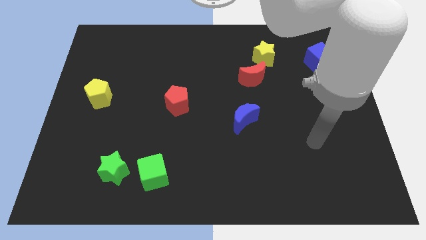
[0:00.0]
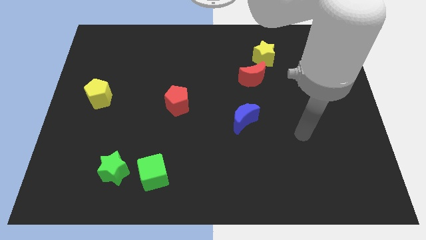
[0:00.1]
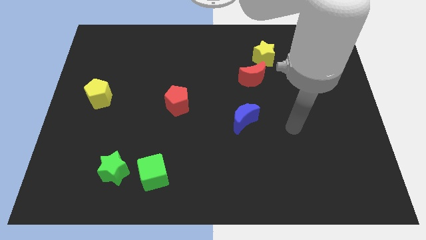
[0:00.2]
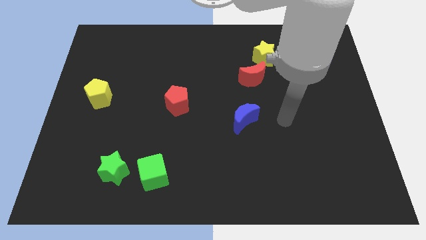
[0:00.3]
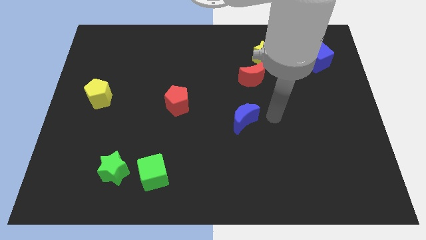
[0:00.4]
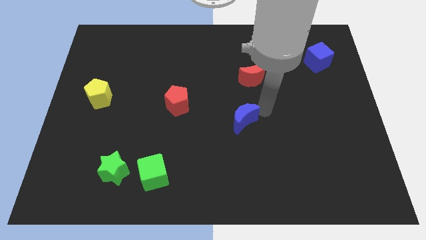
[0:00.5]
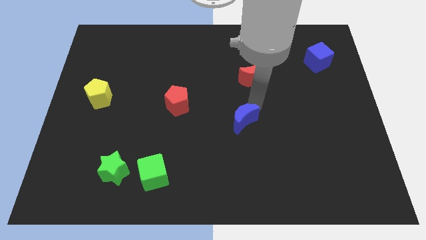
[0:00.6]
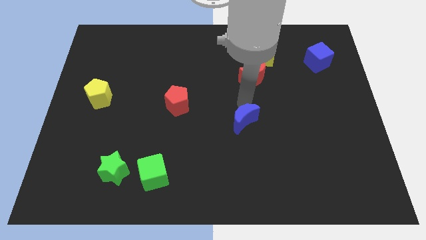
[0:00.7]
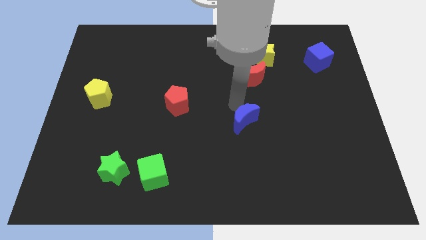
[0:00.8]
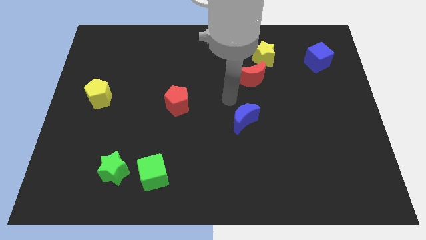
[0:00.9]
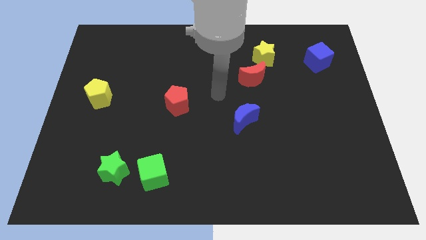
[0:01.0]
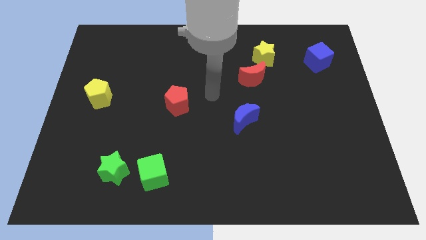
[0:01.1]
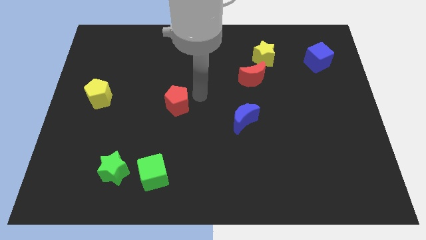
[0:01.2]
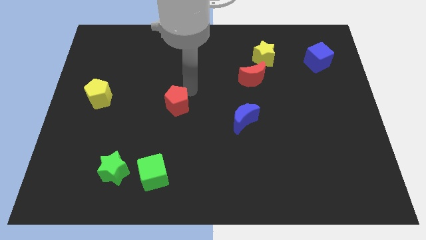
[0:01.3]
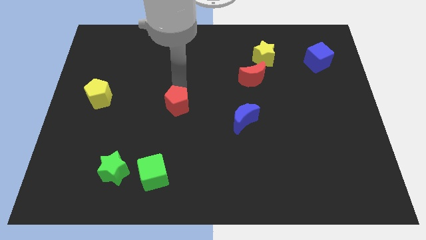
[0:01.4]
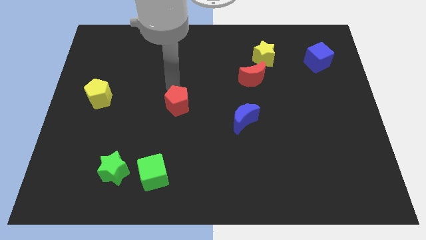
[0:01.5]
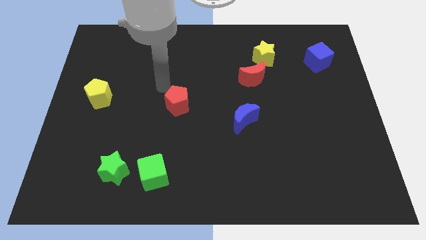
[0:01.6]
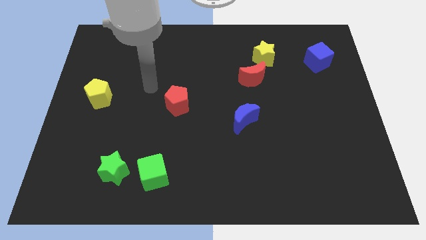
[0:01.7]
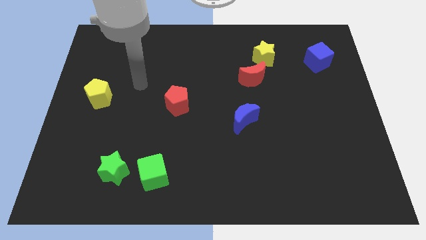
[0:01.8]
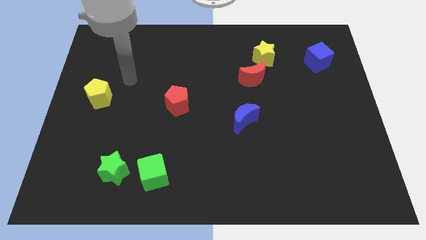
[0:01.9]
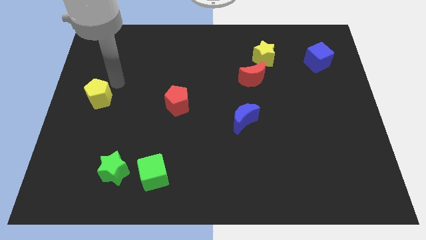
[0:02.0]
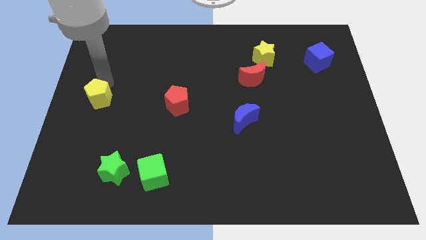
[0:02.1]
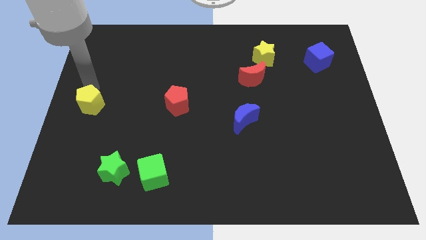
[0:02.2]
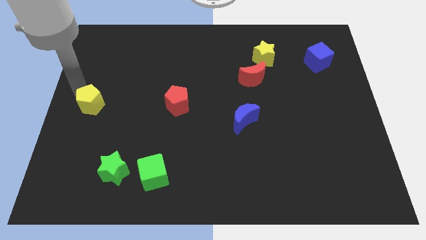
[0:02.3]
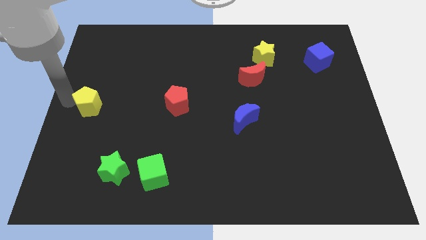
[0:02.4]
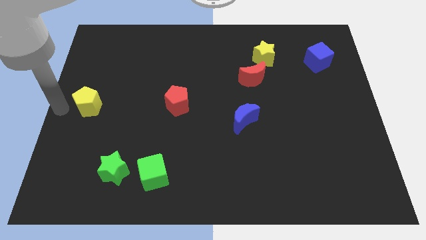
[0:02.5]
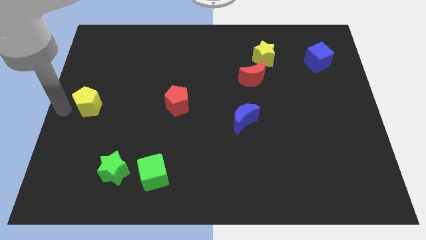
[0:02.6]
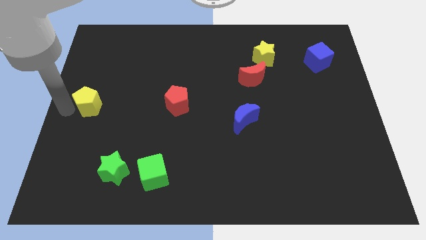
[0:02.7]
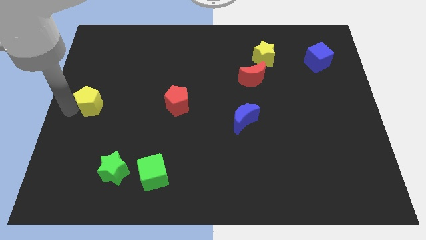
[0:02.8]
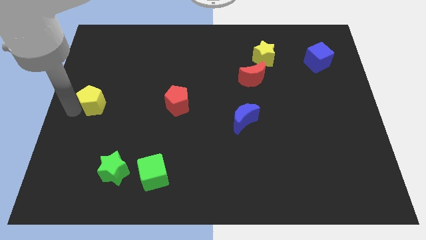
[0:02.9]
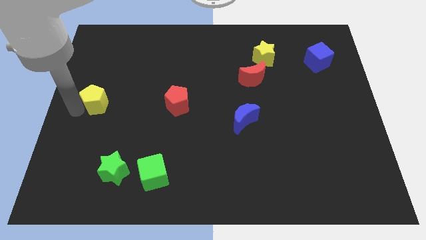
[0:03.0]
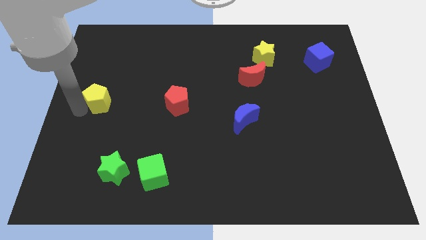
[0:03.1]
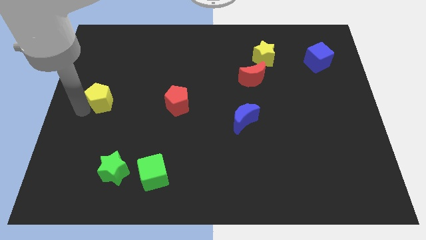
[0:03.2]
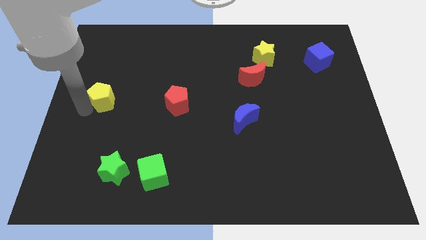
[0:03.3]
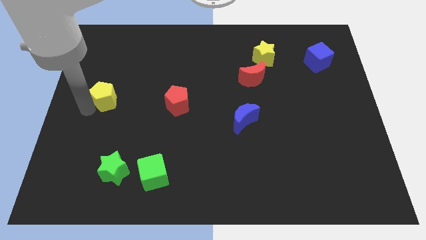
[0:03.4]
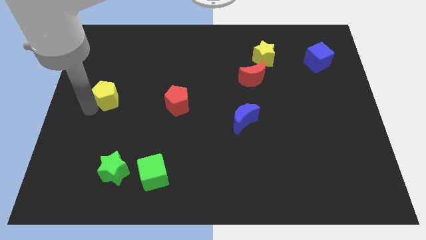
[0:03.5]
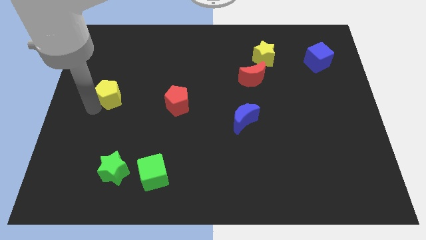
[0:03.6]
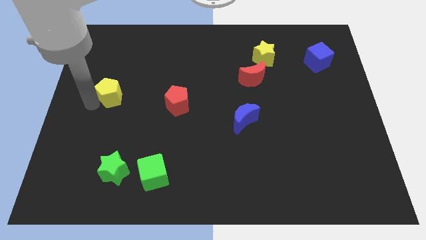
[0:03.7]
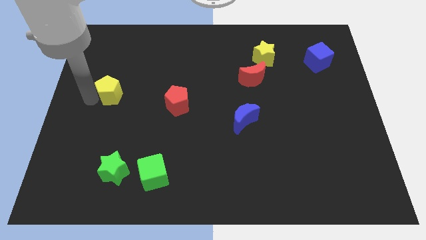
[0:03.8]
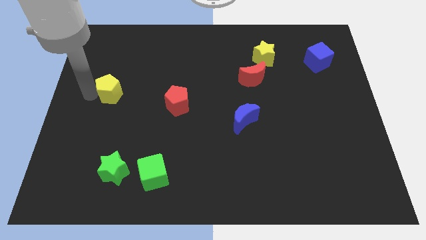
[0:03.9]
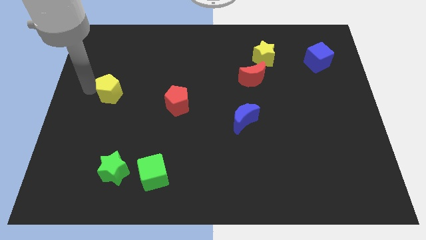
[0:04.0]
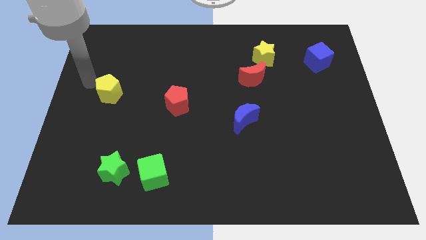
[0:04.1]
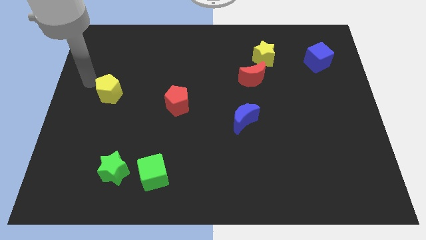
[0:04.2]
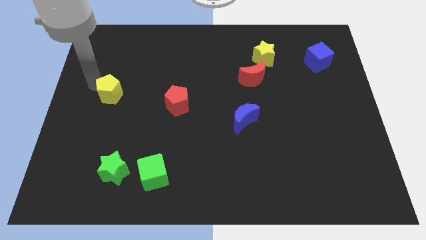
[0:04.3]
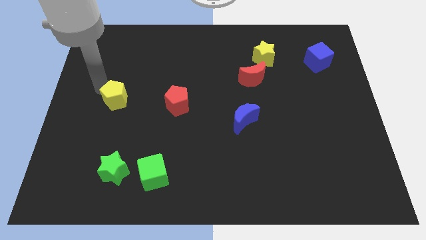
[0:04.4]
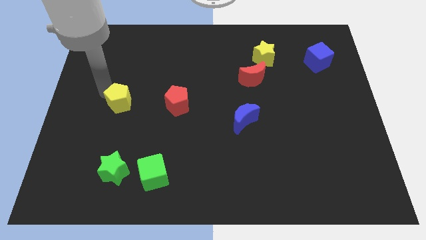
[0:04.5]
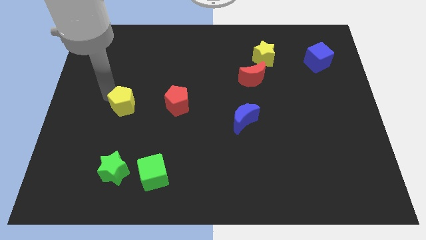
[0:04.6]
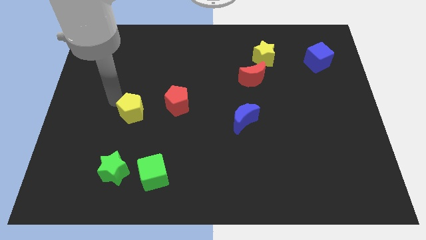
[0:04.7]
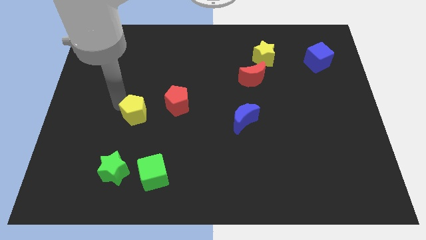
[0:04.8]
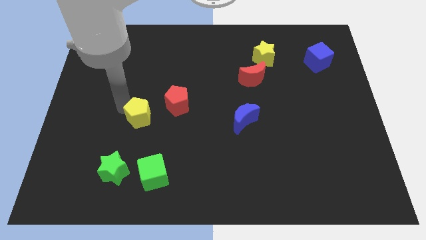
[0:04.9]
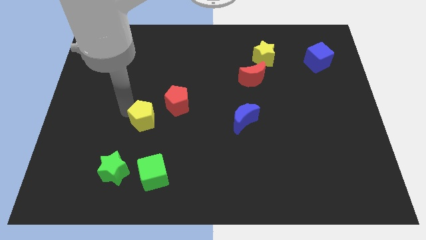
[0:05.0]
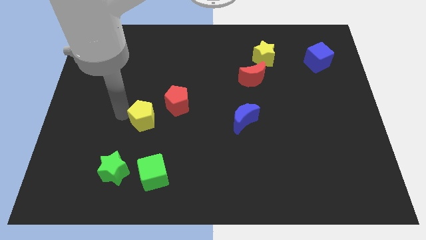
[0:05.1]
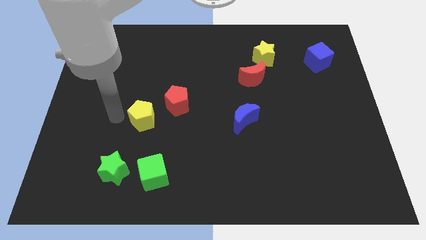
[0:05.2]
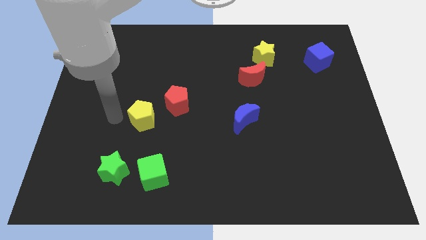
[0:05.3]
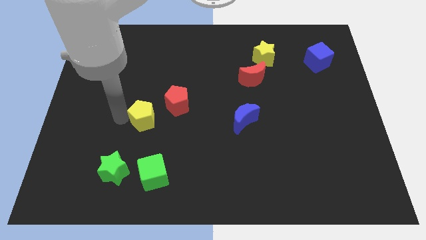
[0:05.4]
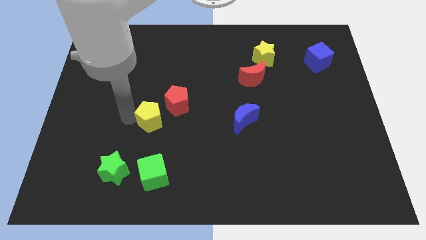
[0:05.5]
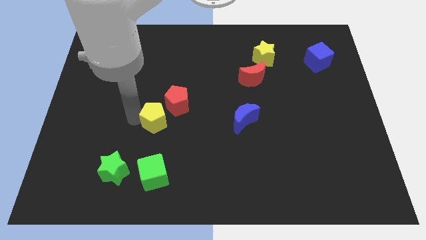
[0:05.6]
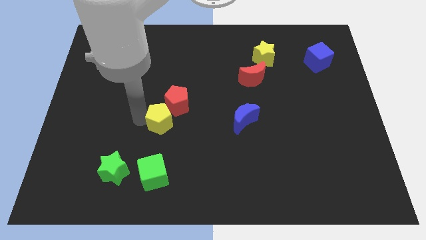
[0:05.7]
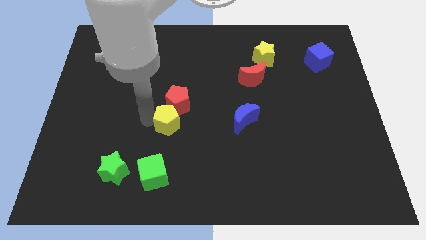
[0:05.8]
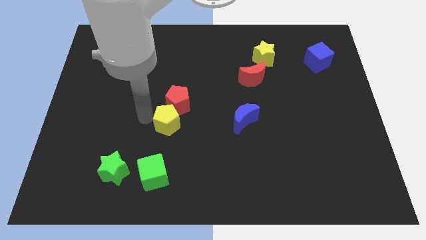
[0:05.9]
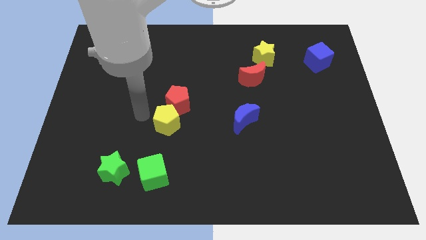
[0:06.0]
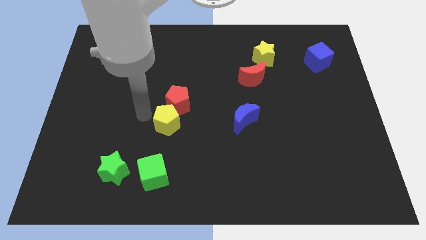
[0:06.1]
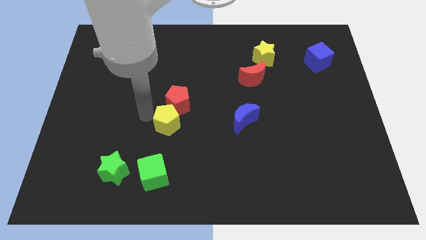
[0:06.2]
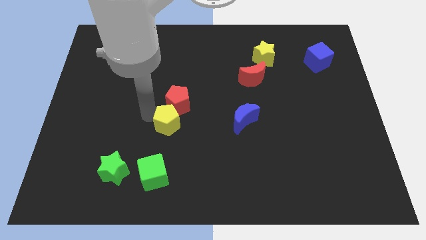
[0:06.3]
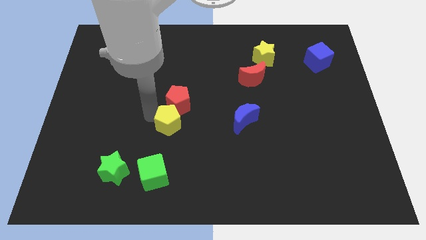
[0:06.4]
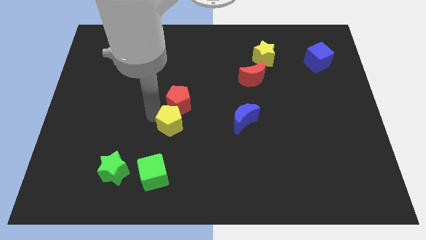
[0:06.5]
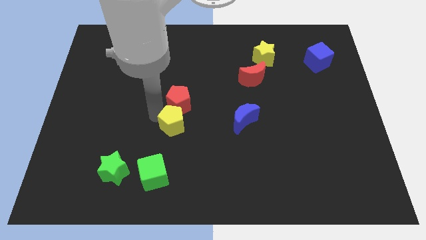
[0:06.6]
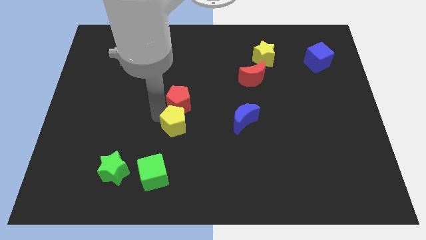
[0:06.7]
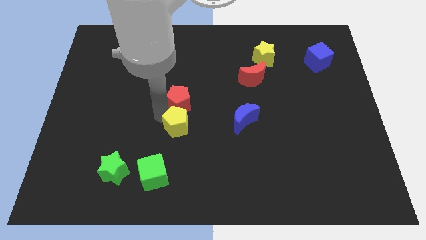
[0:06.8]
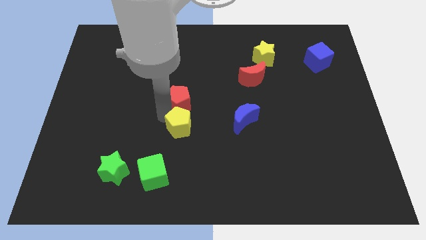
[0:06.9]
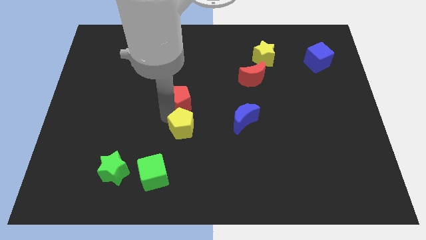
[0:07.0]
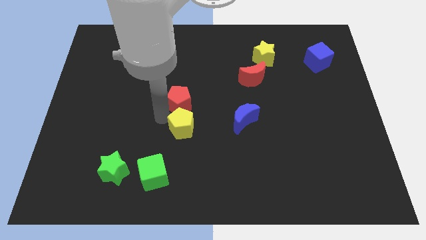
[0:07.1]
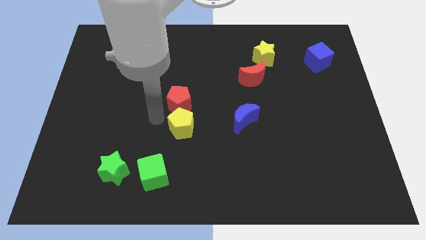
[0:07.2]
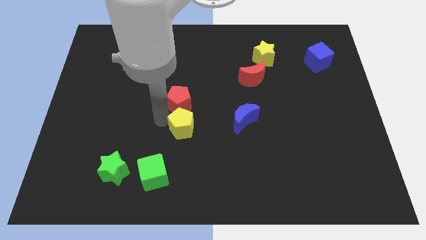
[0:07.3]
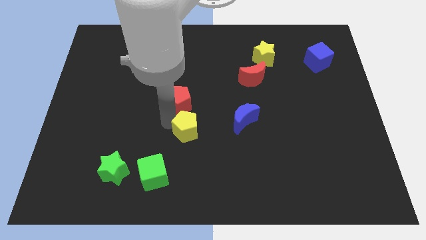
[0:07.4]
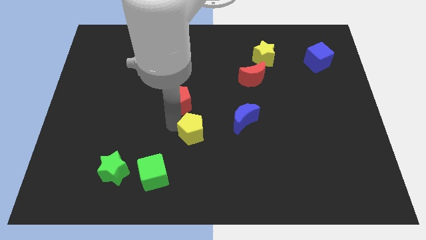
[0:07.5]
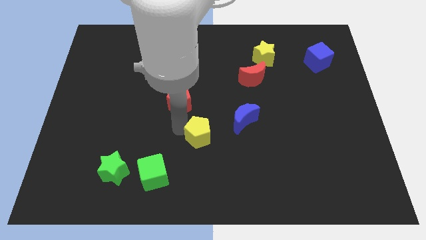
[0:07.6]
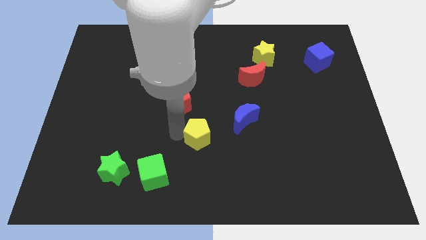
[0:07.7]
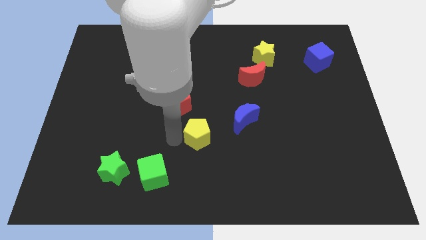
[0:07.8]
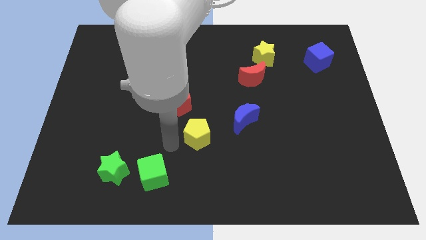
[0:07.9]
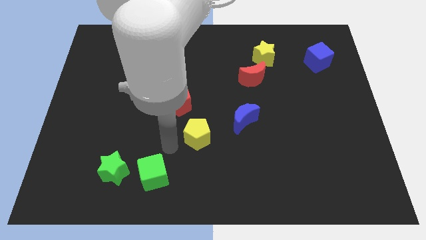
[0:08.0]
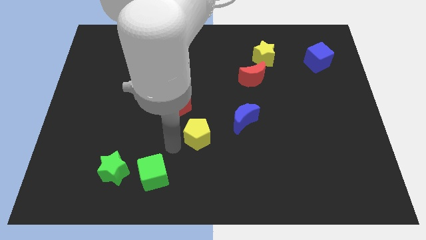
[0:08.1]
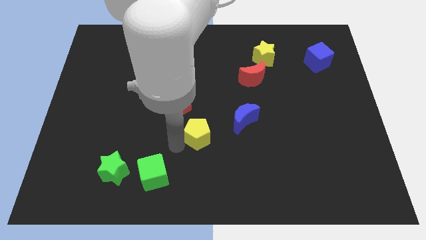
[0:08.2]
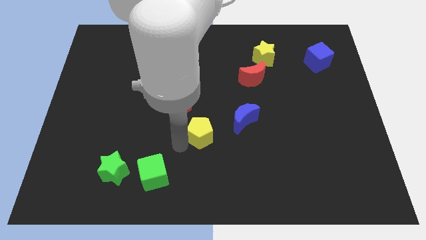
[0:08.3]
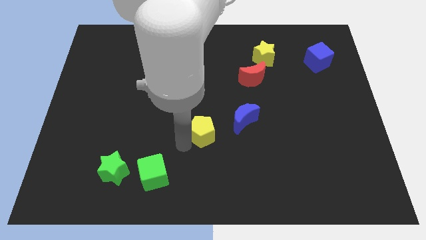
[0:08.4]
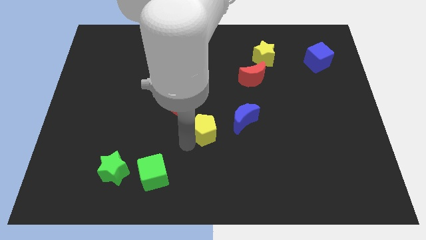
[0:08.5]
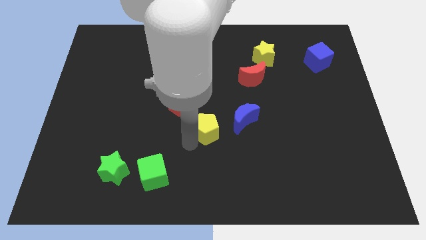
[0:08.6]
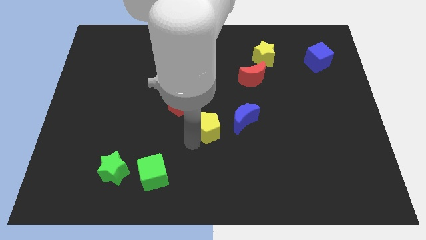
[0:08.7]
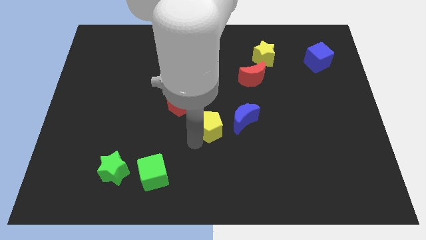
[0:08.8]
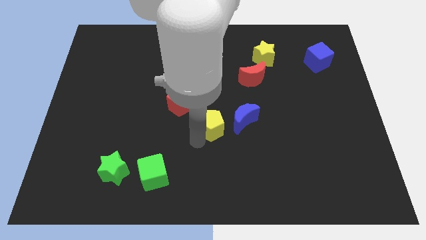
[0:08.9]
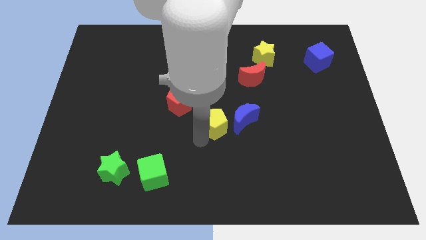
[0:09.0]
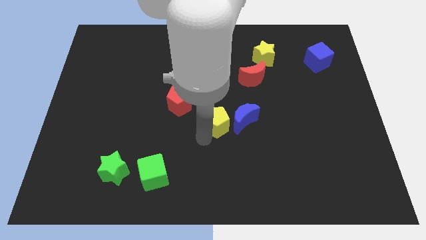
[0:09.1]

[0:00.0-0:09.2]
move the yellow pentagon to the blue moon
